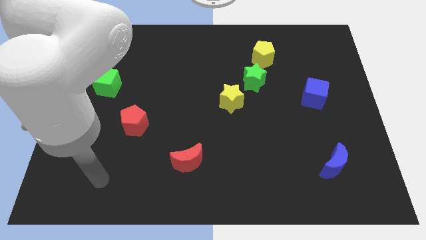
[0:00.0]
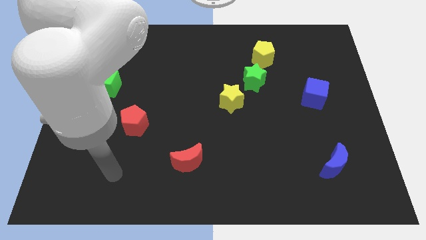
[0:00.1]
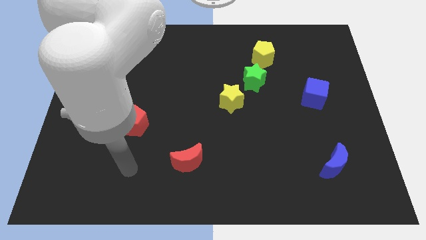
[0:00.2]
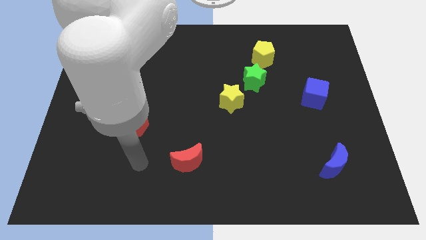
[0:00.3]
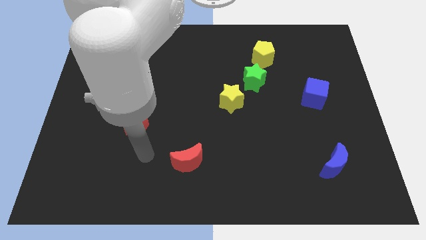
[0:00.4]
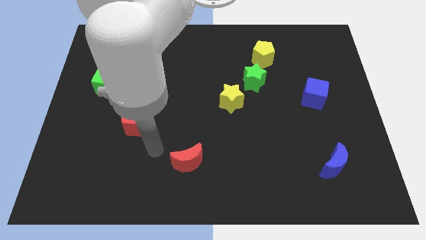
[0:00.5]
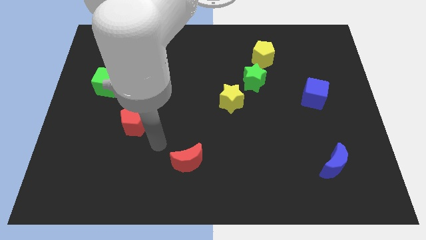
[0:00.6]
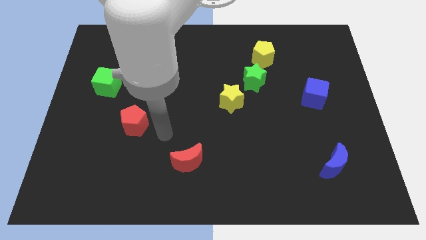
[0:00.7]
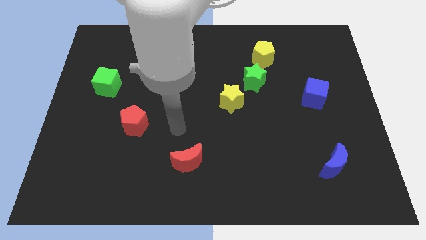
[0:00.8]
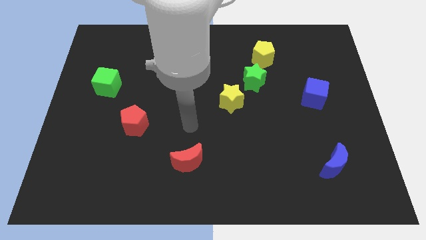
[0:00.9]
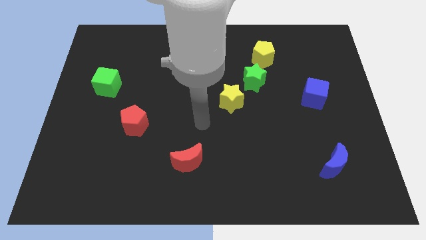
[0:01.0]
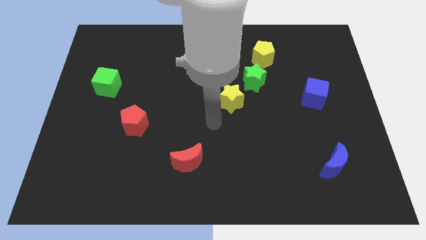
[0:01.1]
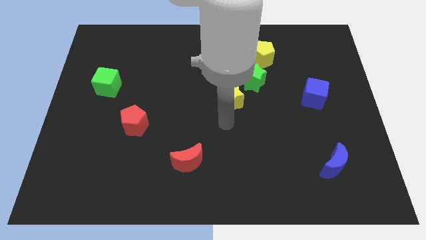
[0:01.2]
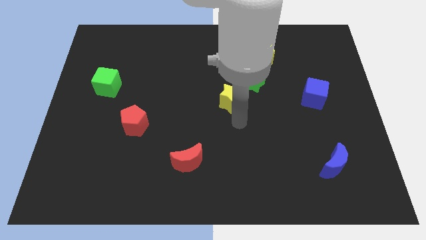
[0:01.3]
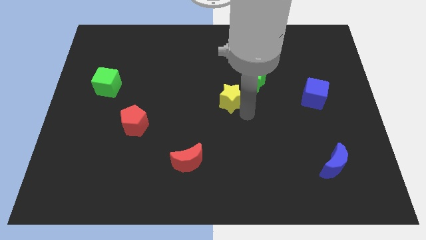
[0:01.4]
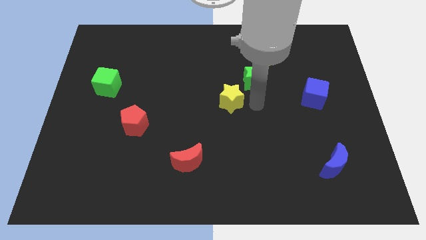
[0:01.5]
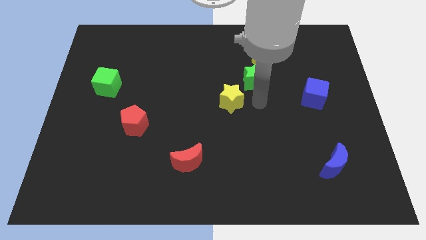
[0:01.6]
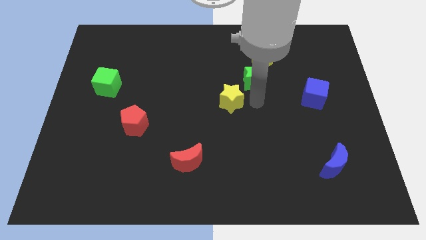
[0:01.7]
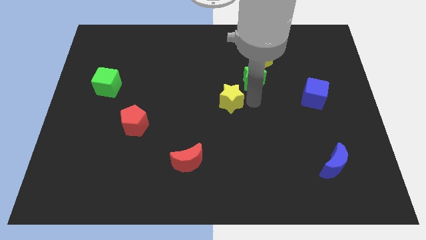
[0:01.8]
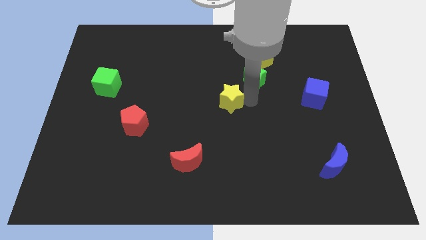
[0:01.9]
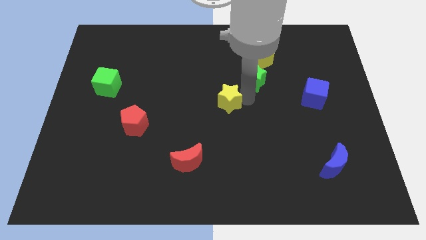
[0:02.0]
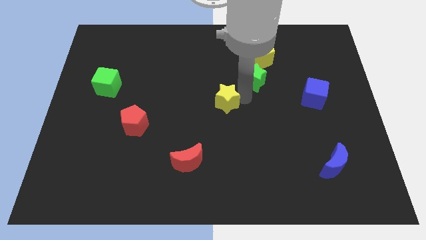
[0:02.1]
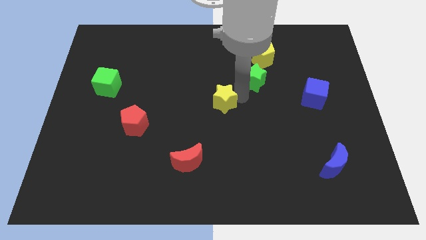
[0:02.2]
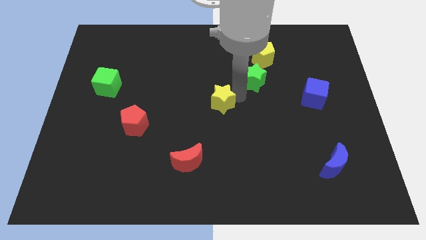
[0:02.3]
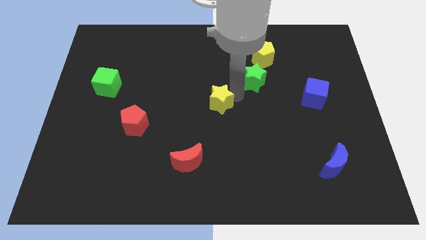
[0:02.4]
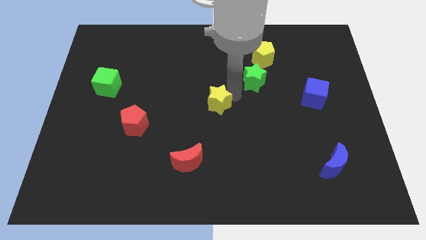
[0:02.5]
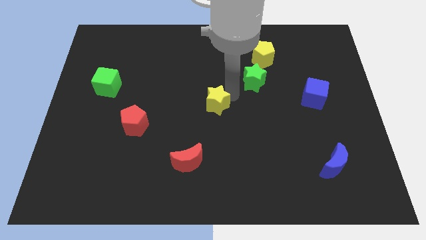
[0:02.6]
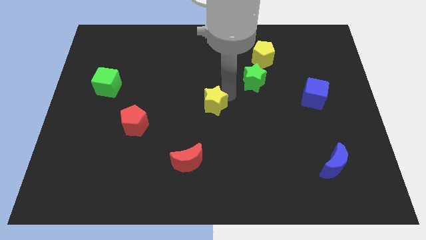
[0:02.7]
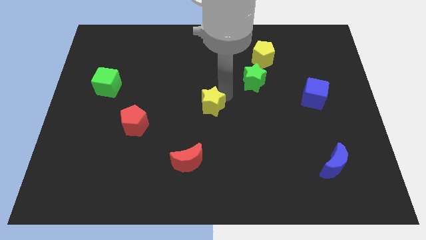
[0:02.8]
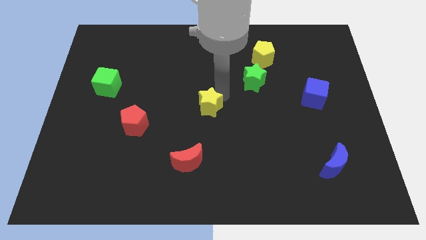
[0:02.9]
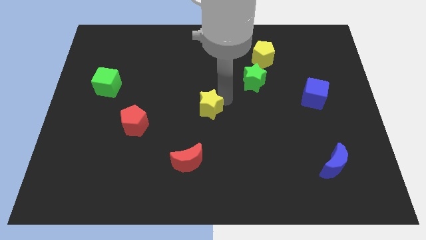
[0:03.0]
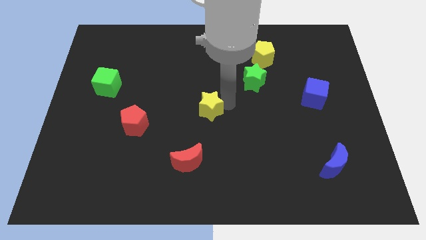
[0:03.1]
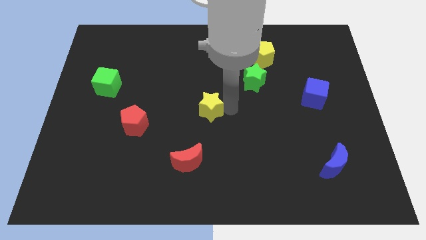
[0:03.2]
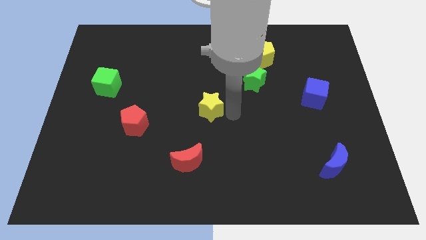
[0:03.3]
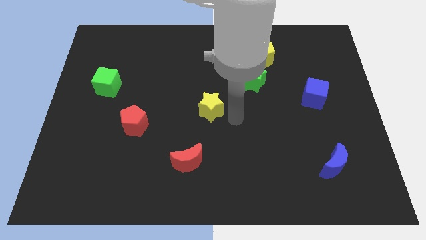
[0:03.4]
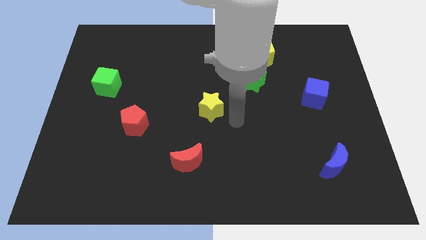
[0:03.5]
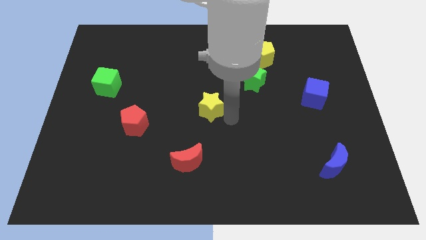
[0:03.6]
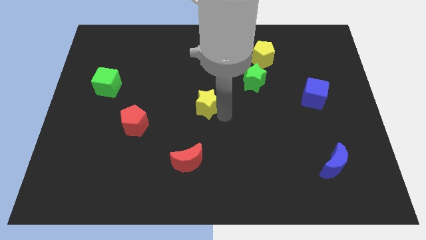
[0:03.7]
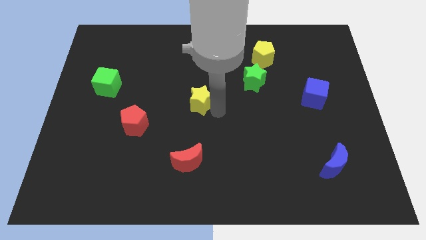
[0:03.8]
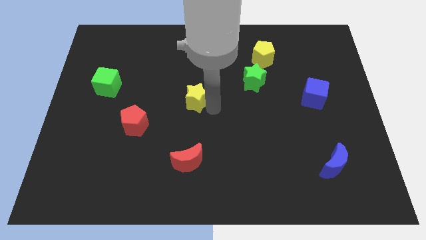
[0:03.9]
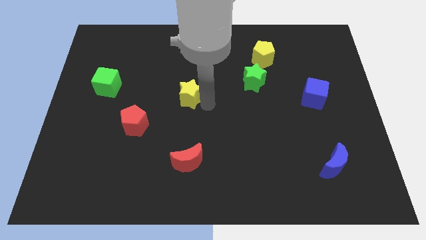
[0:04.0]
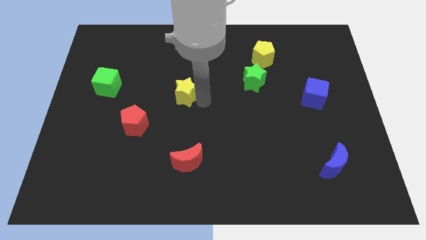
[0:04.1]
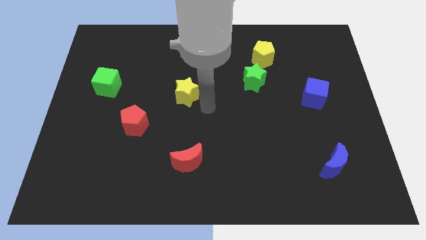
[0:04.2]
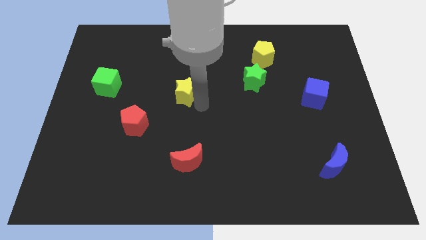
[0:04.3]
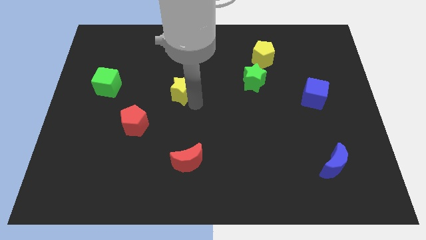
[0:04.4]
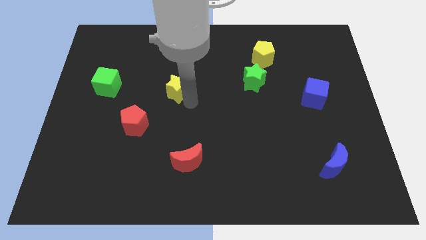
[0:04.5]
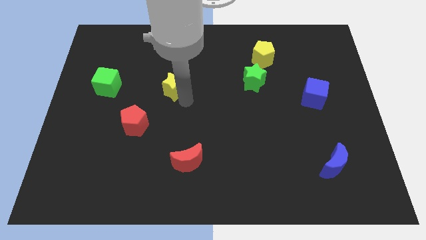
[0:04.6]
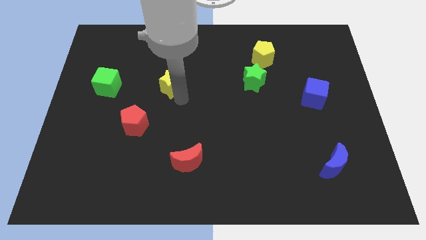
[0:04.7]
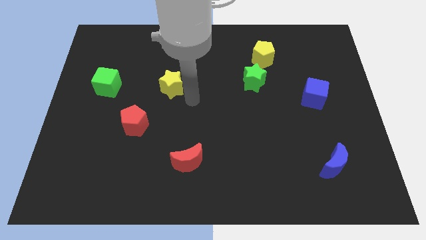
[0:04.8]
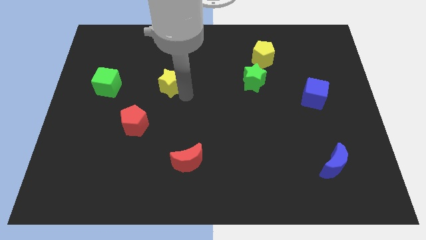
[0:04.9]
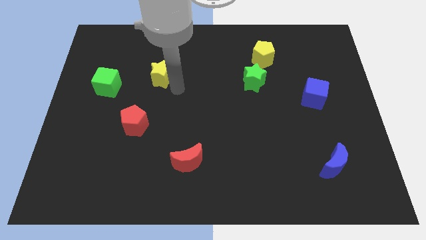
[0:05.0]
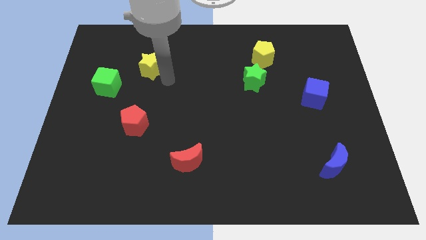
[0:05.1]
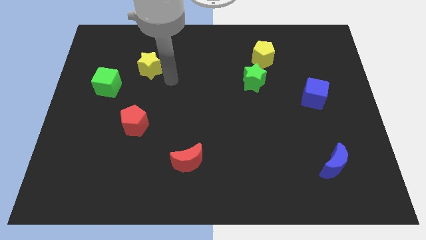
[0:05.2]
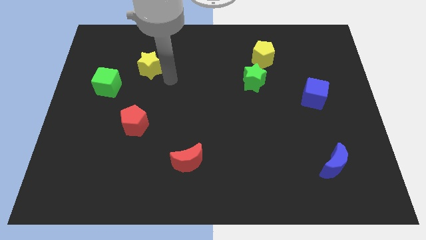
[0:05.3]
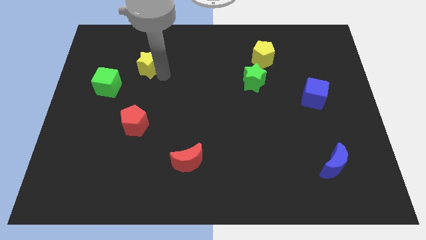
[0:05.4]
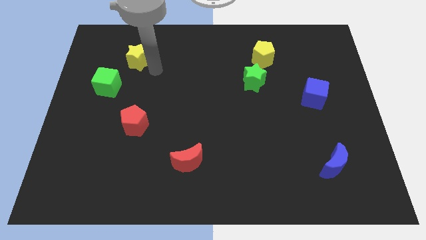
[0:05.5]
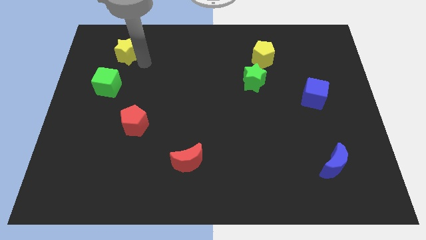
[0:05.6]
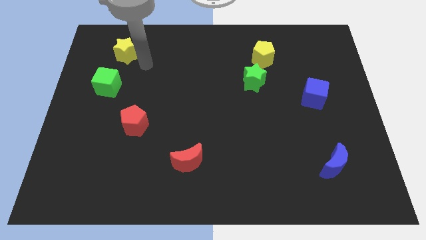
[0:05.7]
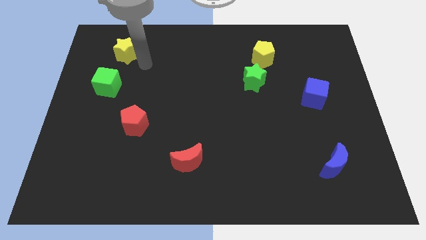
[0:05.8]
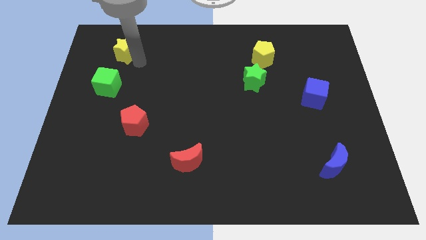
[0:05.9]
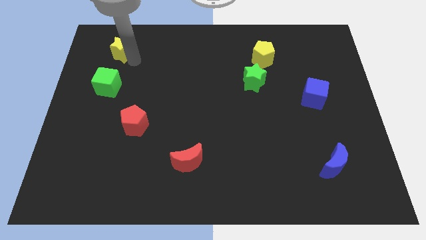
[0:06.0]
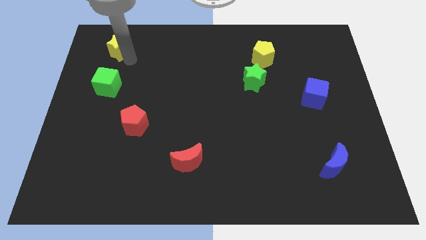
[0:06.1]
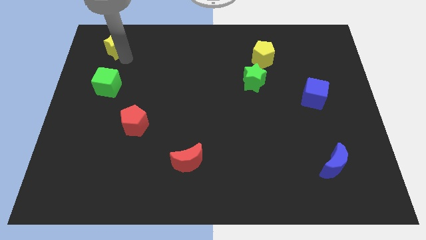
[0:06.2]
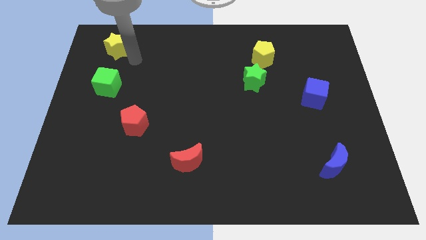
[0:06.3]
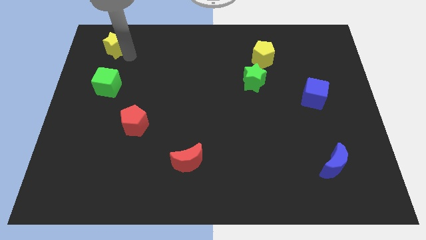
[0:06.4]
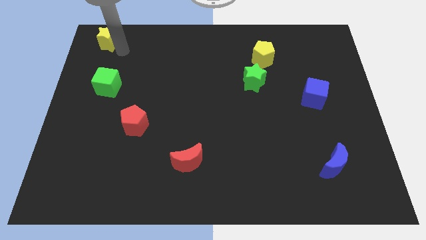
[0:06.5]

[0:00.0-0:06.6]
put the yellow star to the top left

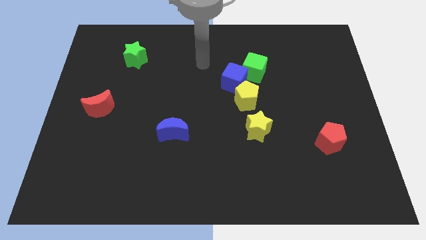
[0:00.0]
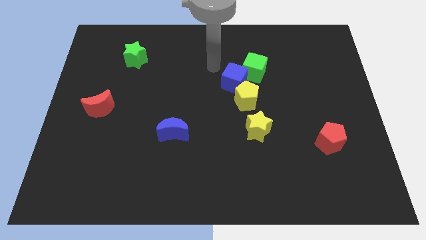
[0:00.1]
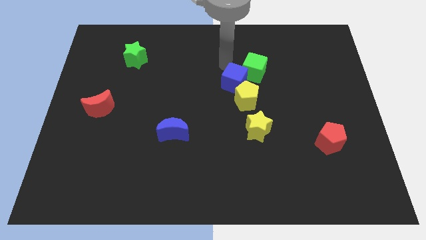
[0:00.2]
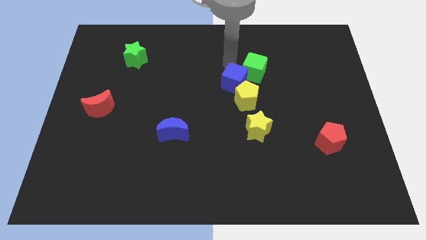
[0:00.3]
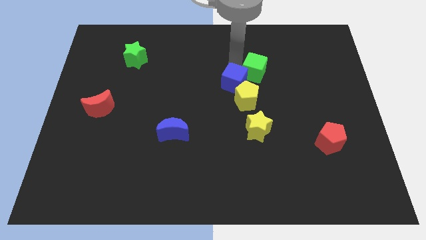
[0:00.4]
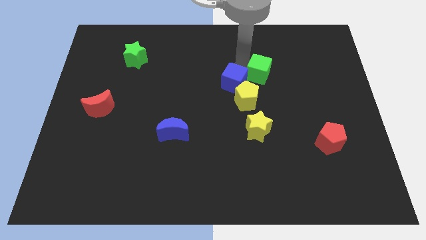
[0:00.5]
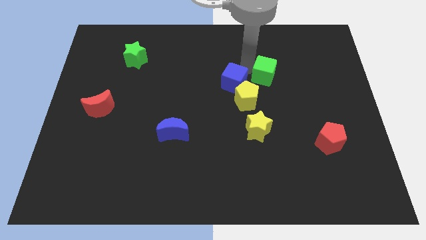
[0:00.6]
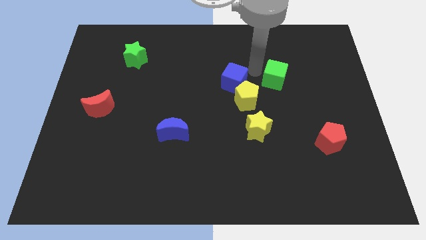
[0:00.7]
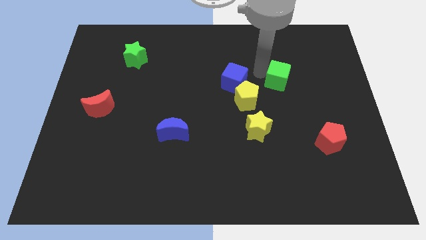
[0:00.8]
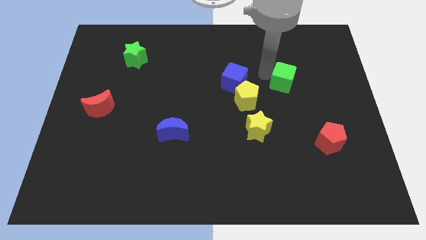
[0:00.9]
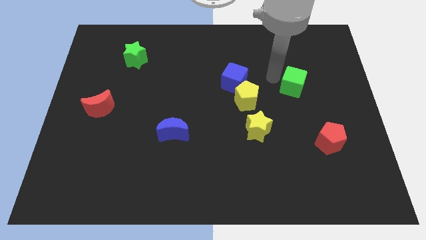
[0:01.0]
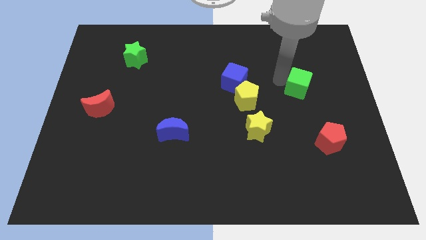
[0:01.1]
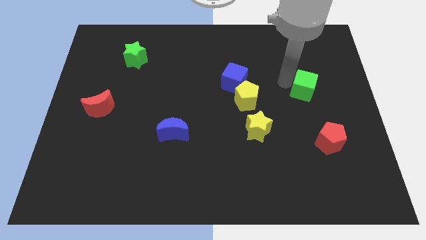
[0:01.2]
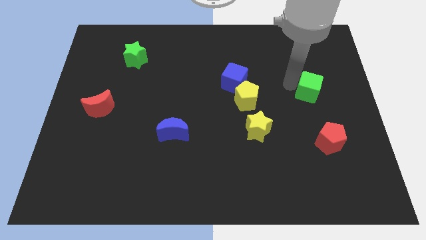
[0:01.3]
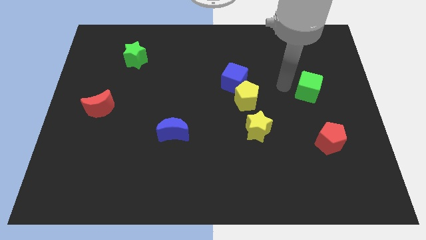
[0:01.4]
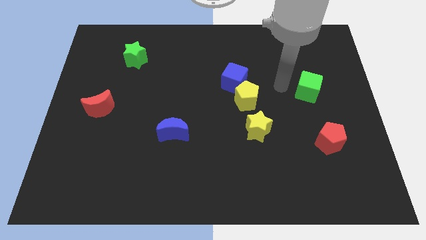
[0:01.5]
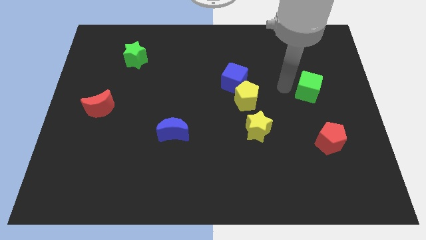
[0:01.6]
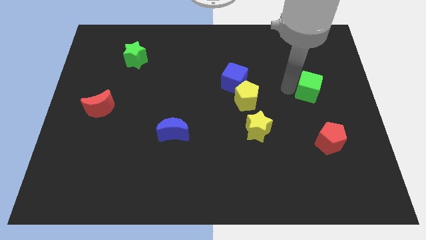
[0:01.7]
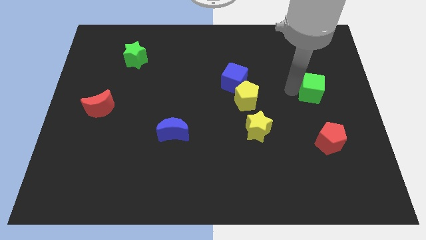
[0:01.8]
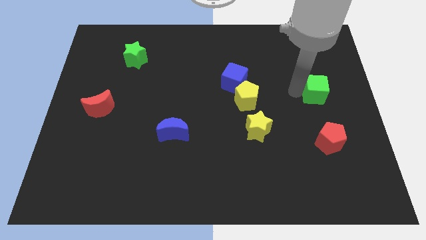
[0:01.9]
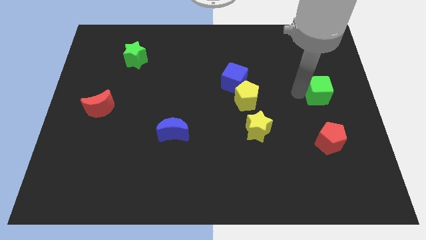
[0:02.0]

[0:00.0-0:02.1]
push the green cube to the right side of the board
